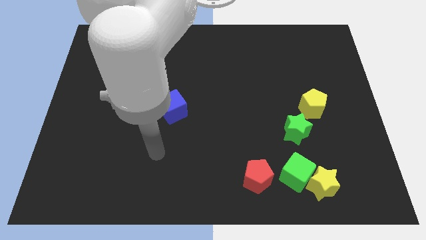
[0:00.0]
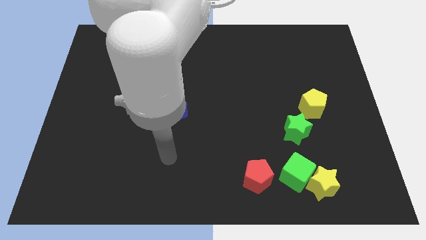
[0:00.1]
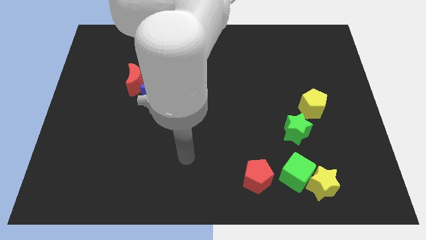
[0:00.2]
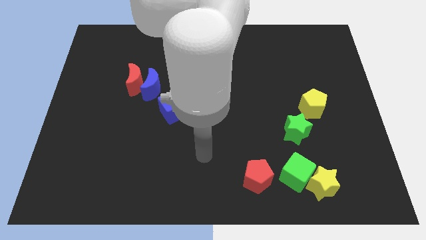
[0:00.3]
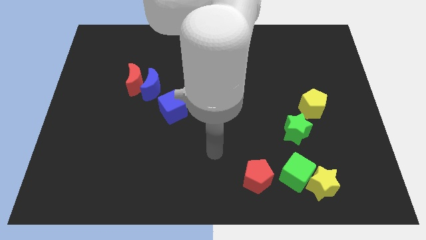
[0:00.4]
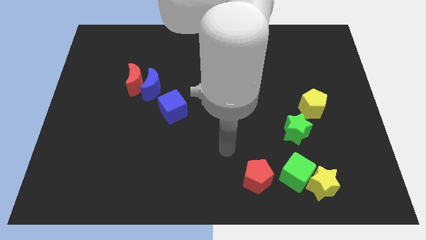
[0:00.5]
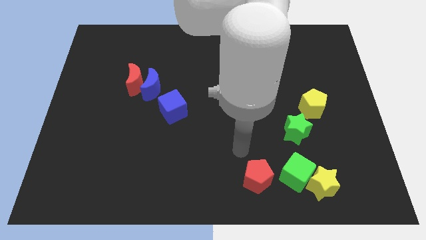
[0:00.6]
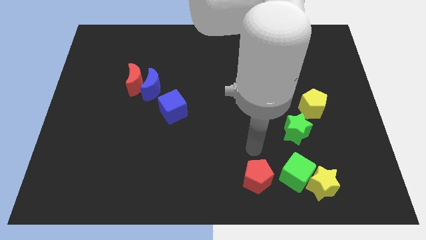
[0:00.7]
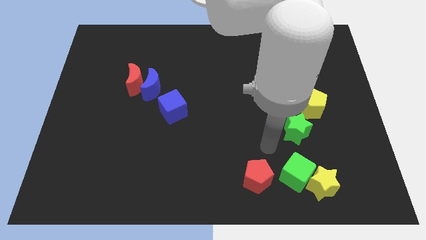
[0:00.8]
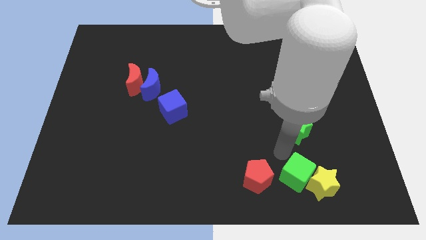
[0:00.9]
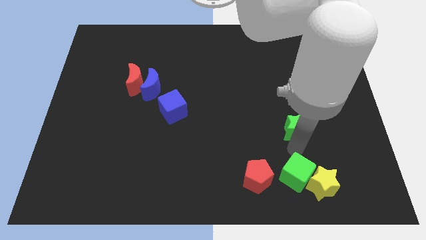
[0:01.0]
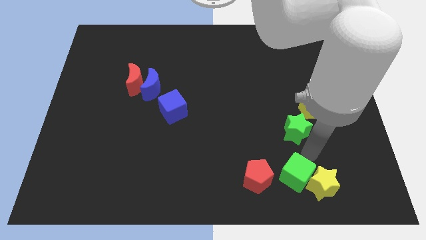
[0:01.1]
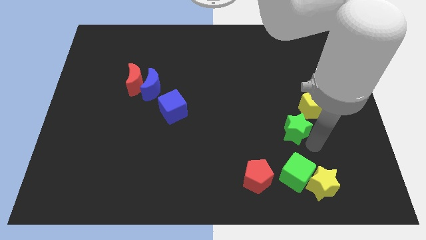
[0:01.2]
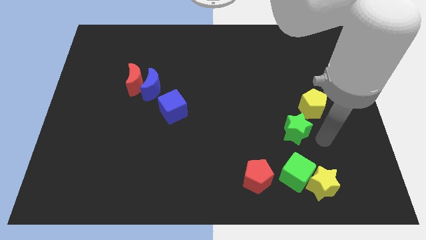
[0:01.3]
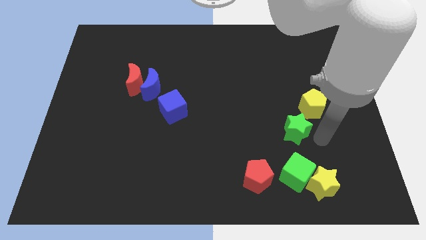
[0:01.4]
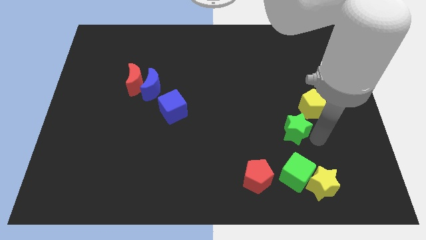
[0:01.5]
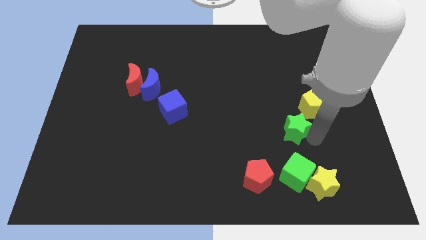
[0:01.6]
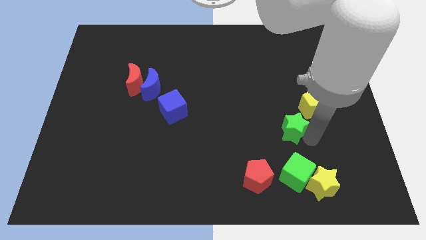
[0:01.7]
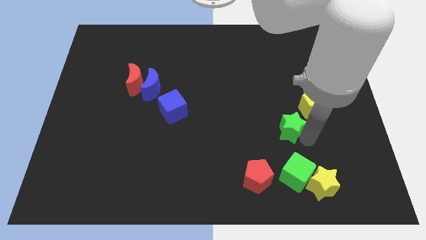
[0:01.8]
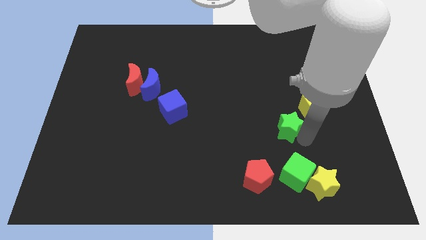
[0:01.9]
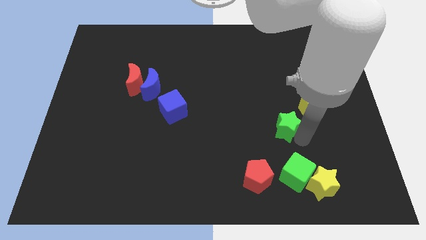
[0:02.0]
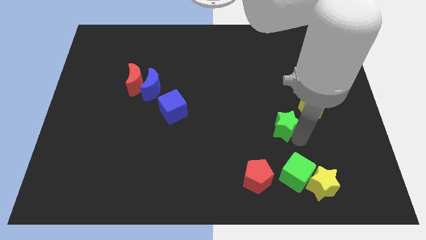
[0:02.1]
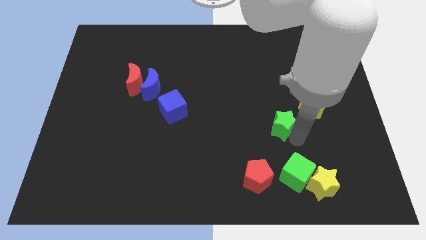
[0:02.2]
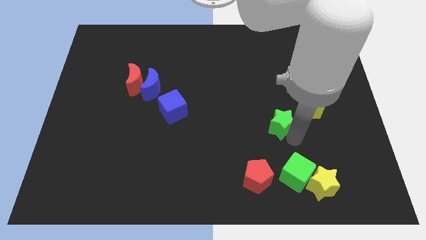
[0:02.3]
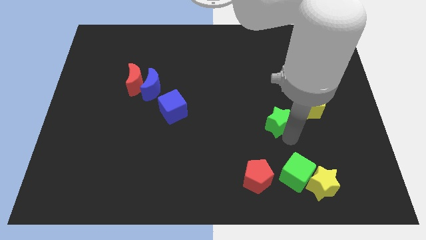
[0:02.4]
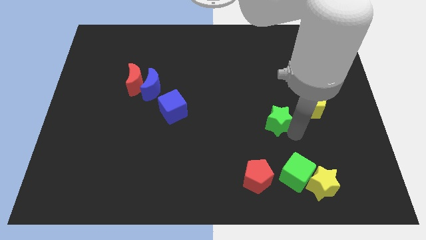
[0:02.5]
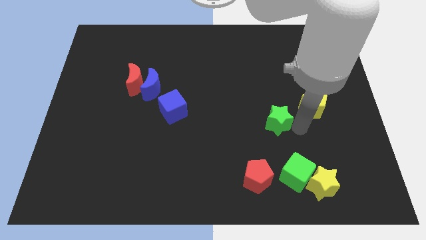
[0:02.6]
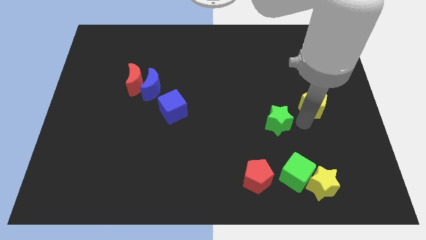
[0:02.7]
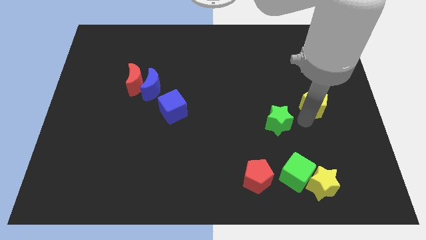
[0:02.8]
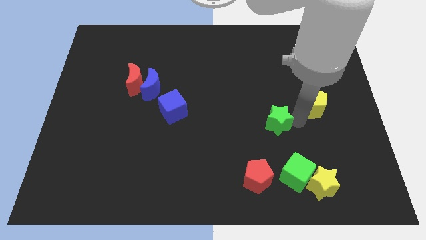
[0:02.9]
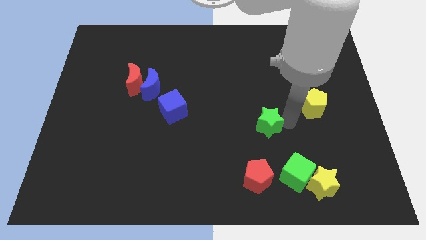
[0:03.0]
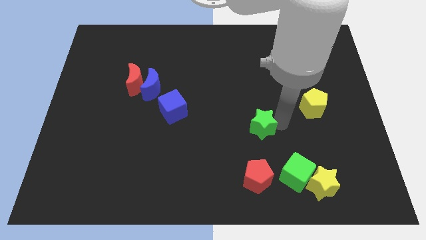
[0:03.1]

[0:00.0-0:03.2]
slightly slide the green star left

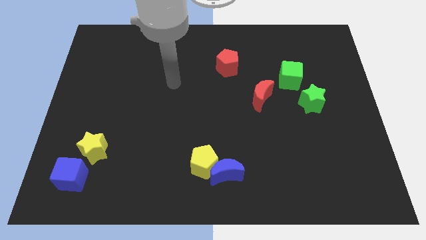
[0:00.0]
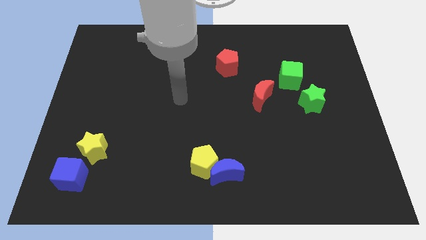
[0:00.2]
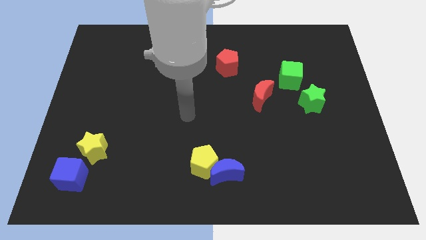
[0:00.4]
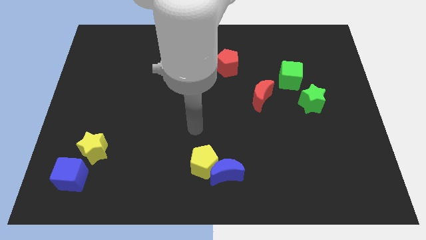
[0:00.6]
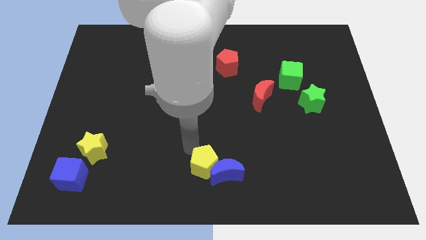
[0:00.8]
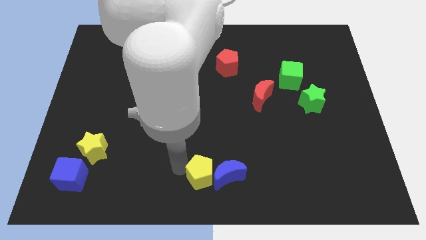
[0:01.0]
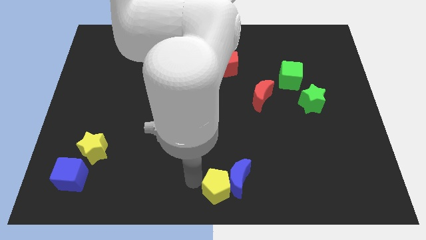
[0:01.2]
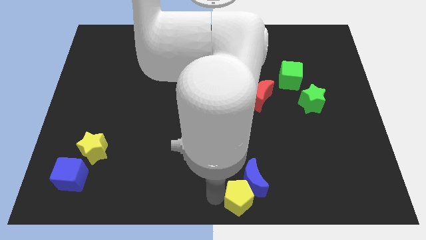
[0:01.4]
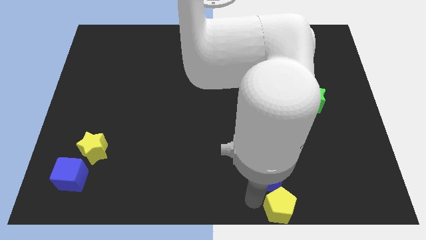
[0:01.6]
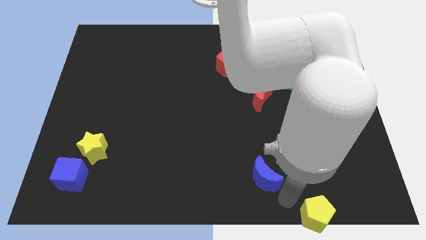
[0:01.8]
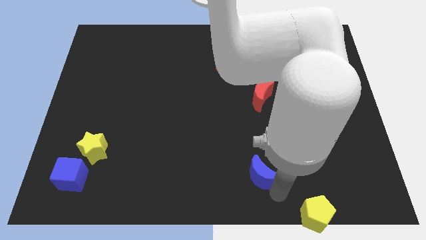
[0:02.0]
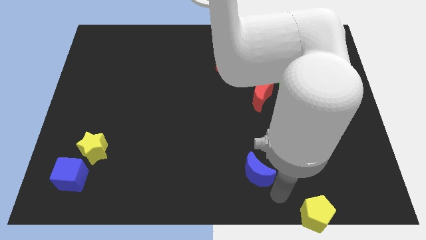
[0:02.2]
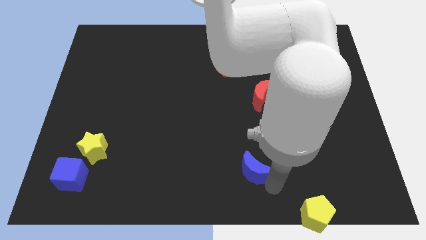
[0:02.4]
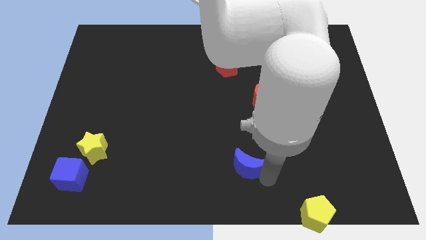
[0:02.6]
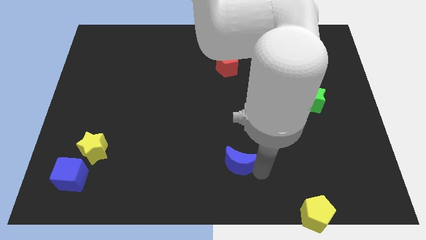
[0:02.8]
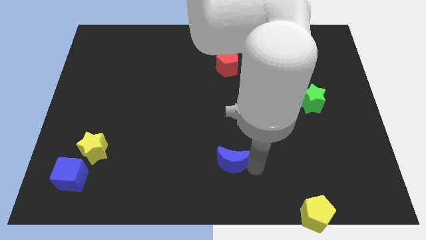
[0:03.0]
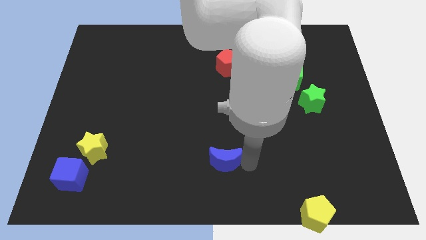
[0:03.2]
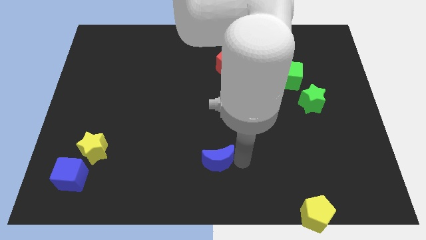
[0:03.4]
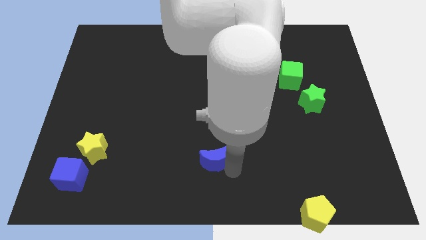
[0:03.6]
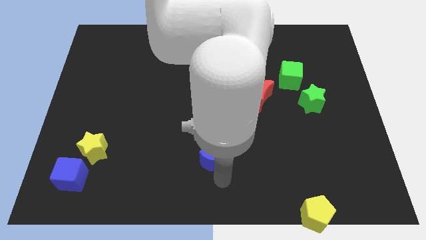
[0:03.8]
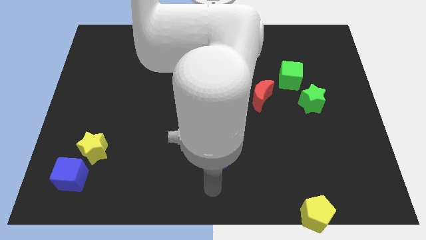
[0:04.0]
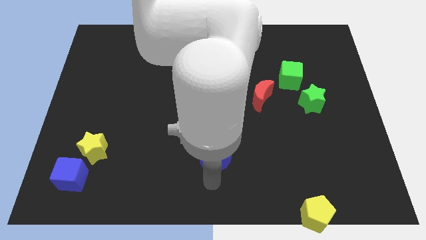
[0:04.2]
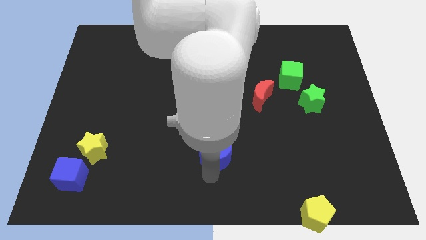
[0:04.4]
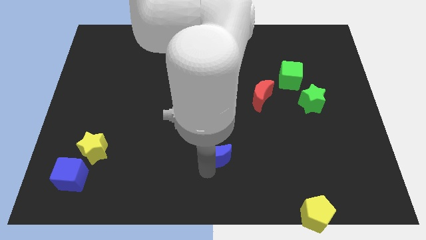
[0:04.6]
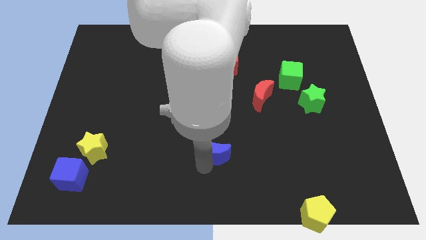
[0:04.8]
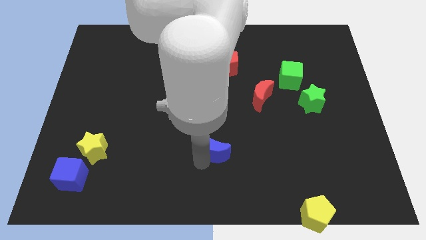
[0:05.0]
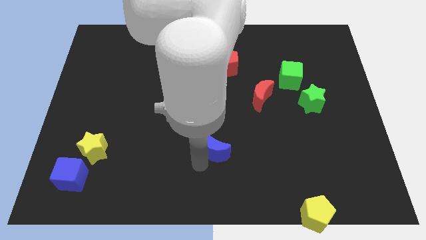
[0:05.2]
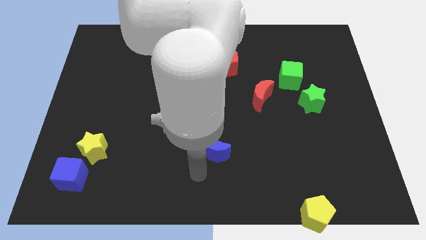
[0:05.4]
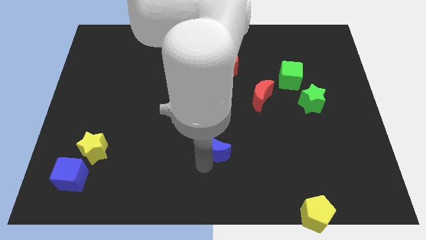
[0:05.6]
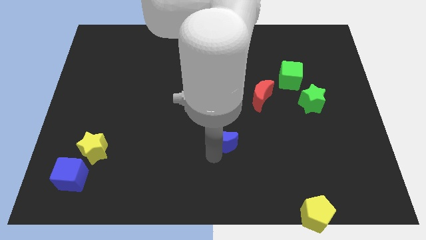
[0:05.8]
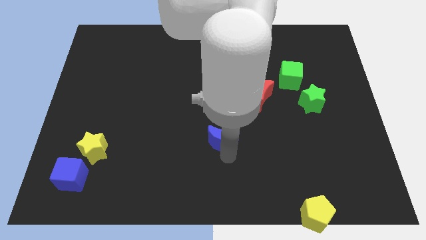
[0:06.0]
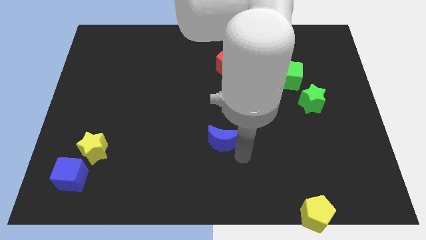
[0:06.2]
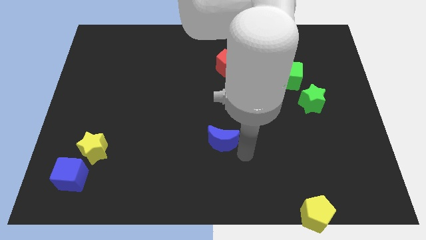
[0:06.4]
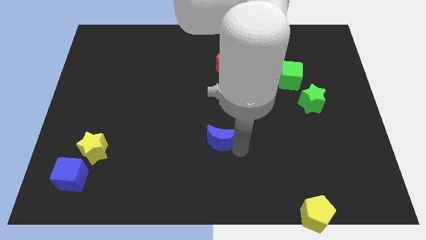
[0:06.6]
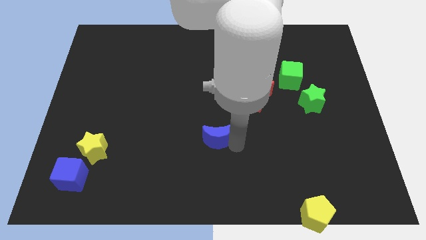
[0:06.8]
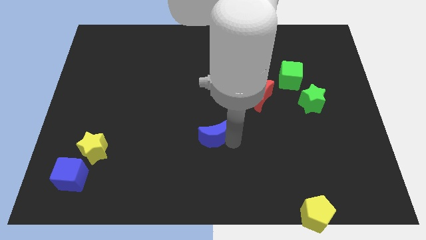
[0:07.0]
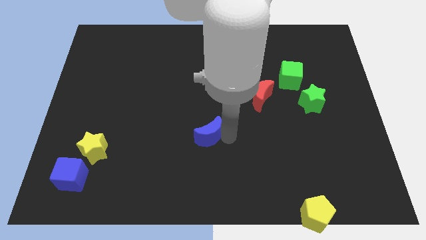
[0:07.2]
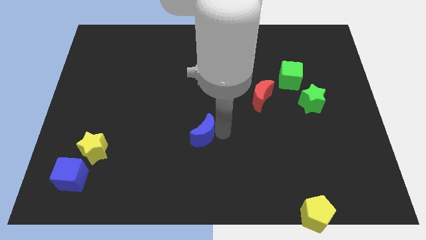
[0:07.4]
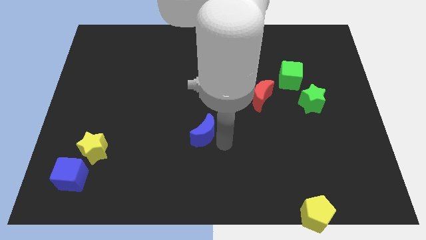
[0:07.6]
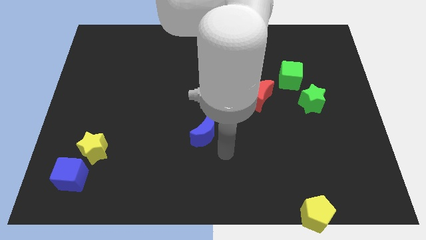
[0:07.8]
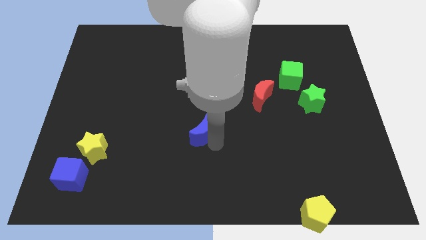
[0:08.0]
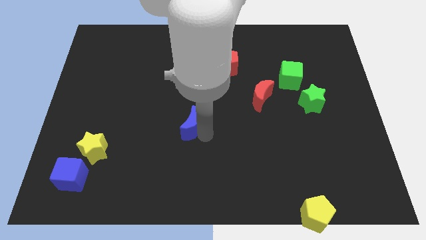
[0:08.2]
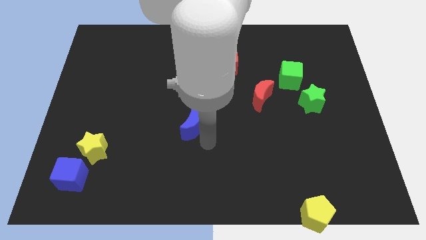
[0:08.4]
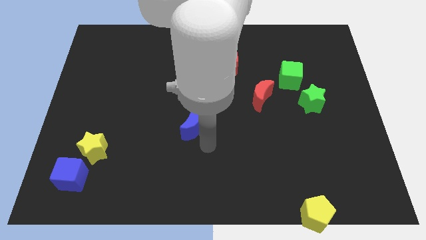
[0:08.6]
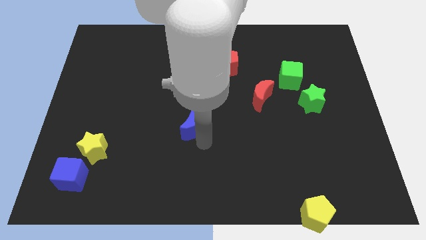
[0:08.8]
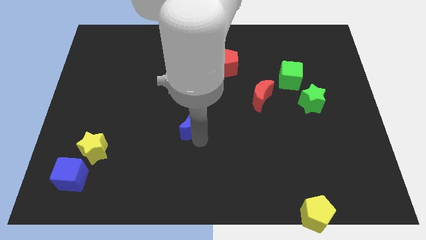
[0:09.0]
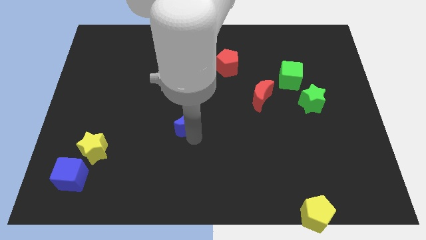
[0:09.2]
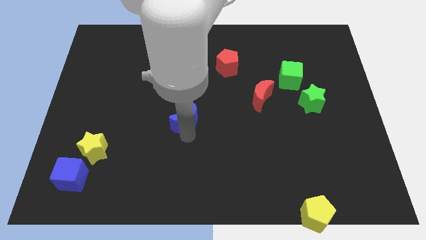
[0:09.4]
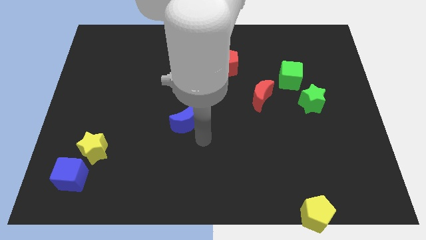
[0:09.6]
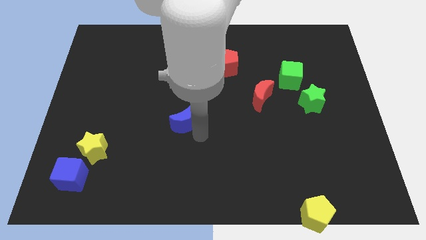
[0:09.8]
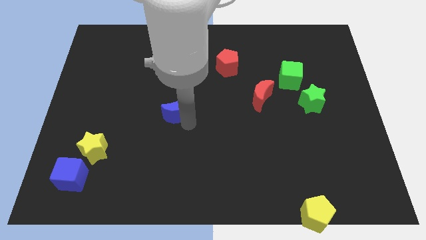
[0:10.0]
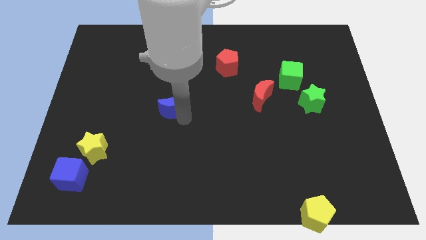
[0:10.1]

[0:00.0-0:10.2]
slide the blue moon up and to the left
